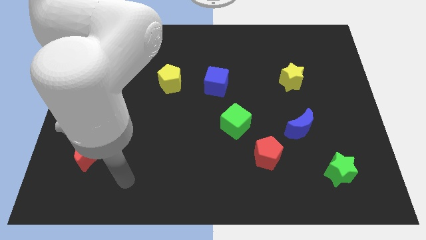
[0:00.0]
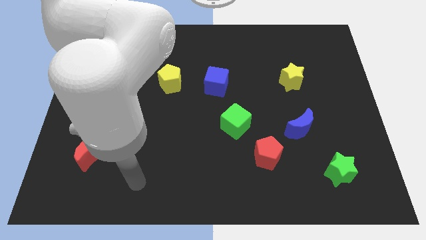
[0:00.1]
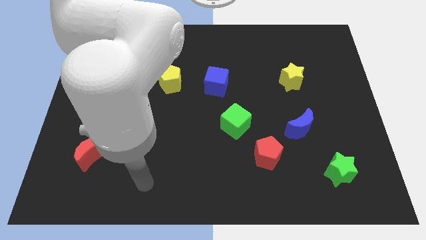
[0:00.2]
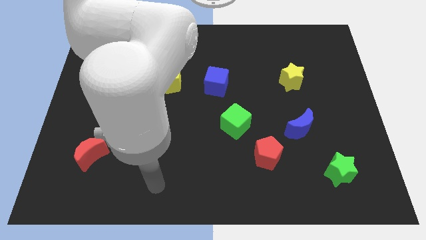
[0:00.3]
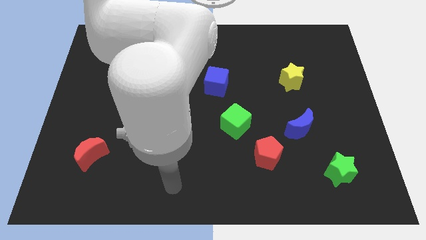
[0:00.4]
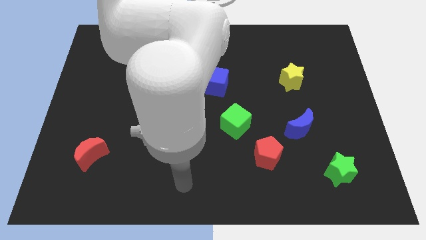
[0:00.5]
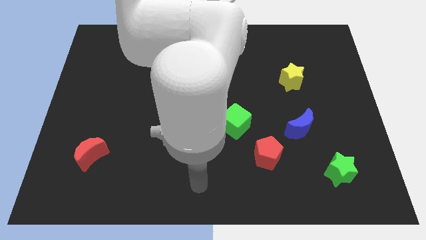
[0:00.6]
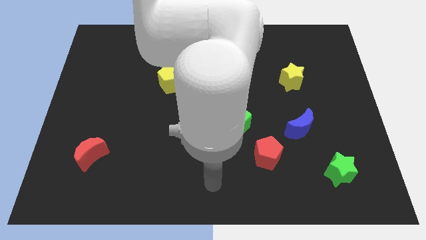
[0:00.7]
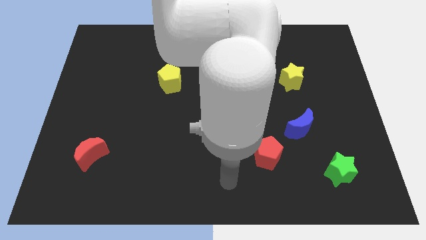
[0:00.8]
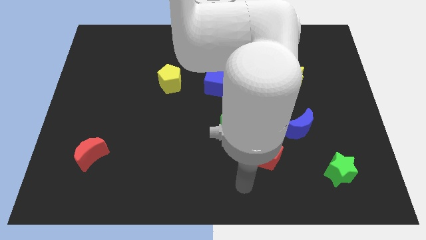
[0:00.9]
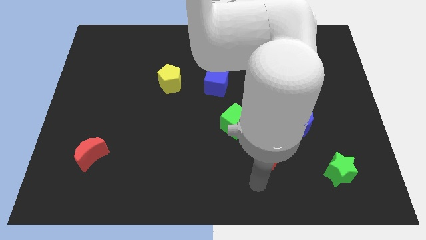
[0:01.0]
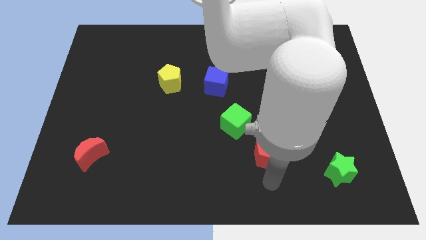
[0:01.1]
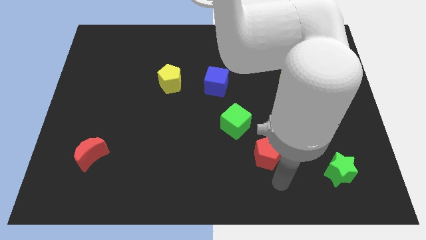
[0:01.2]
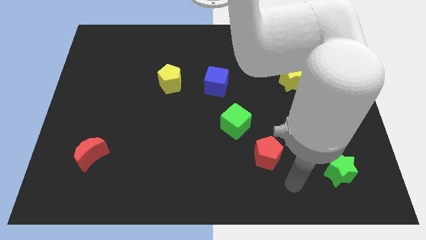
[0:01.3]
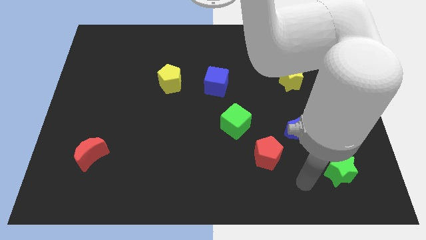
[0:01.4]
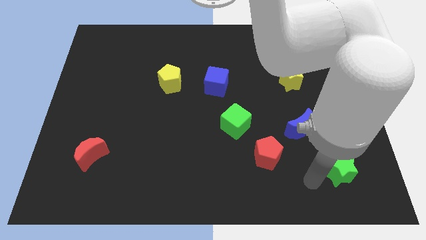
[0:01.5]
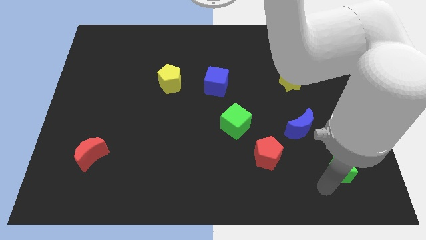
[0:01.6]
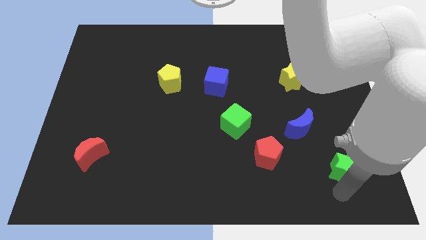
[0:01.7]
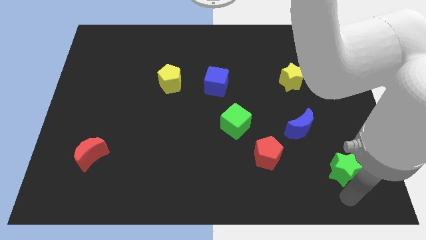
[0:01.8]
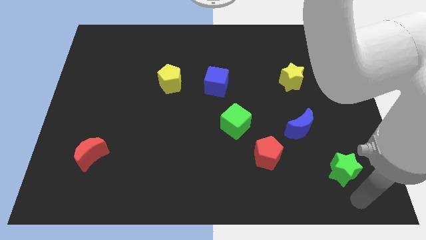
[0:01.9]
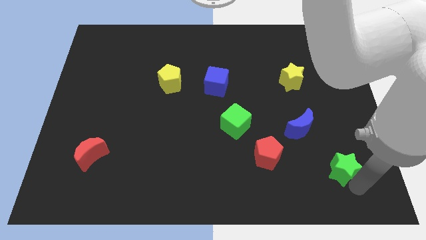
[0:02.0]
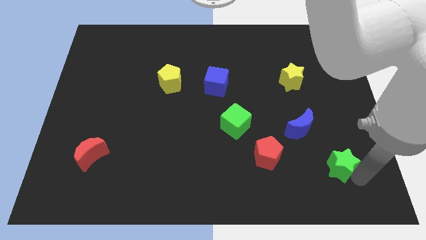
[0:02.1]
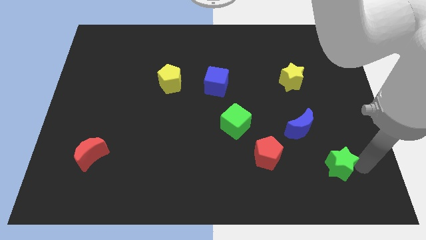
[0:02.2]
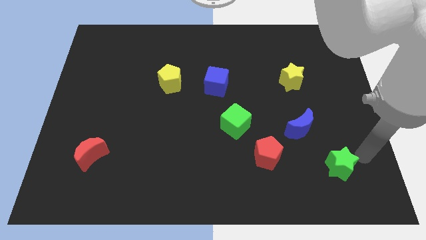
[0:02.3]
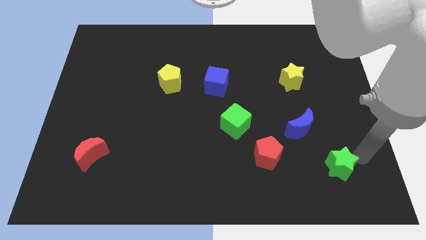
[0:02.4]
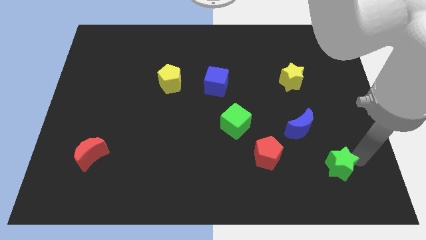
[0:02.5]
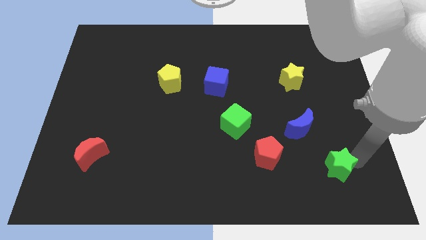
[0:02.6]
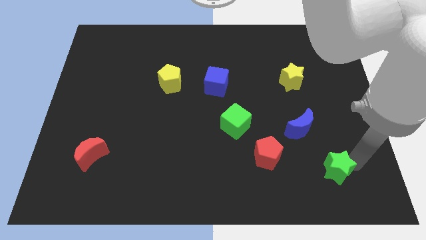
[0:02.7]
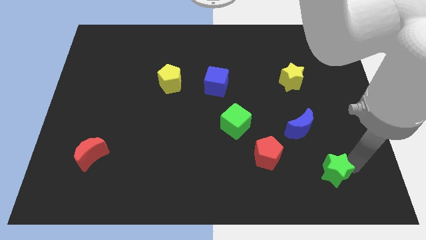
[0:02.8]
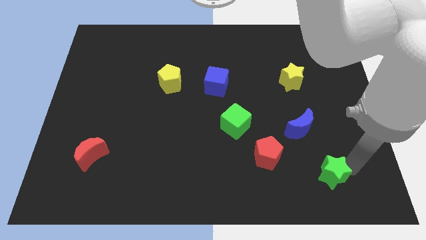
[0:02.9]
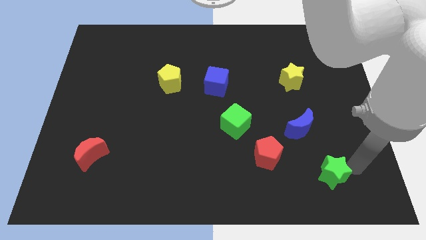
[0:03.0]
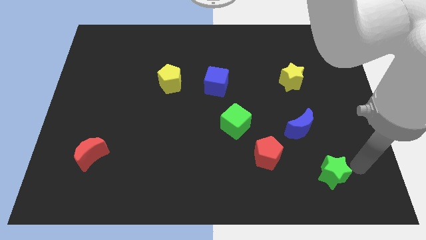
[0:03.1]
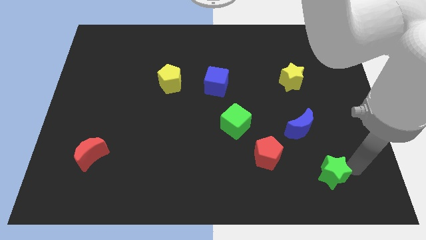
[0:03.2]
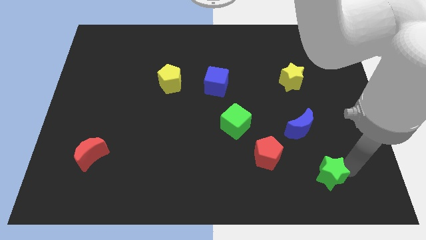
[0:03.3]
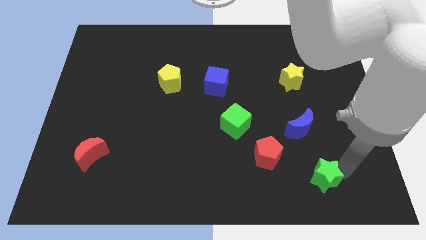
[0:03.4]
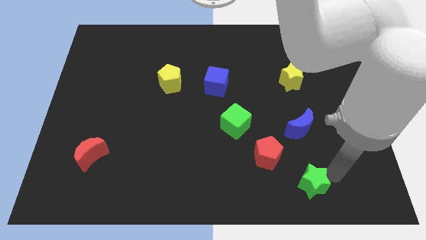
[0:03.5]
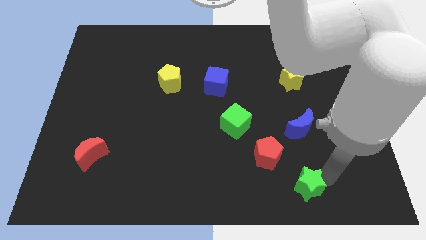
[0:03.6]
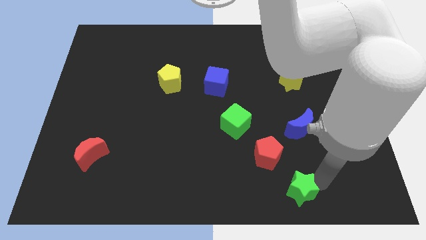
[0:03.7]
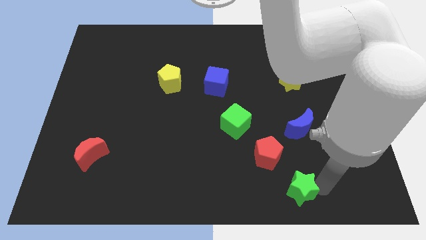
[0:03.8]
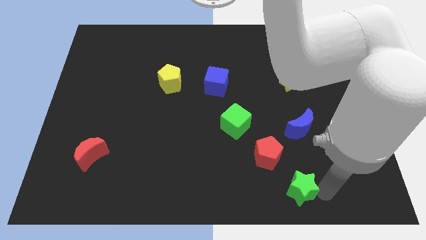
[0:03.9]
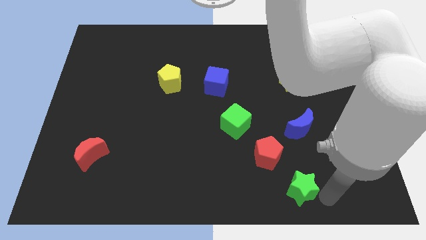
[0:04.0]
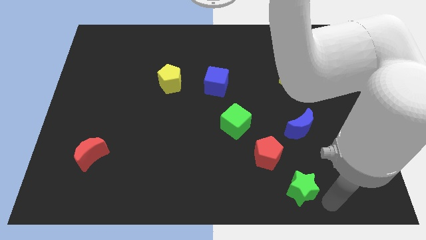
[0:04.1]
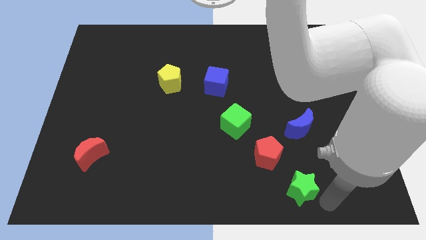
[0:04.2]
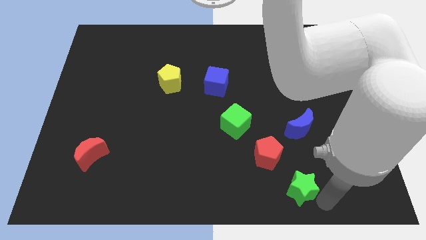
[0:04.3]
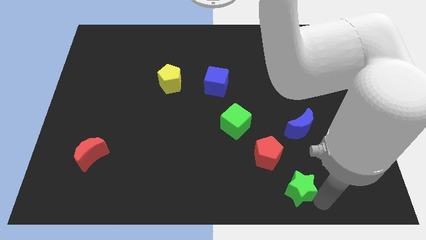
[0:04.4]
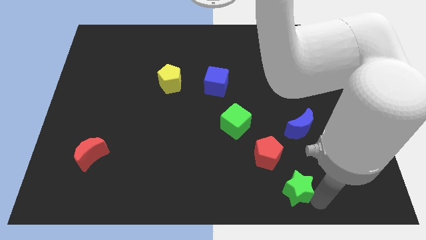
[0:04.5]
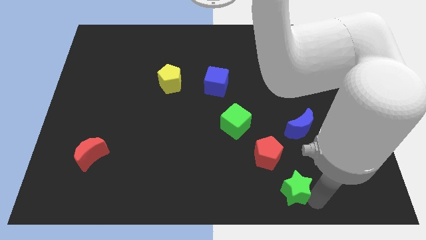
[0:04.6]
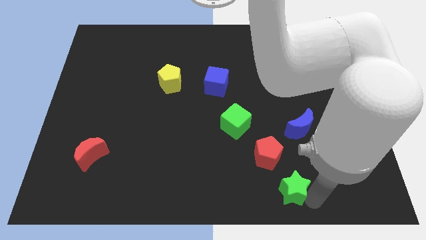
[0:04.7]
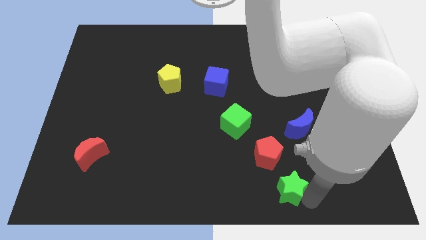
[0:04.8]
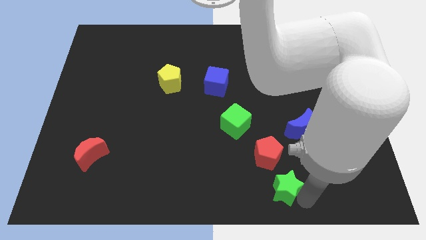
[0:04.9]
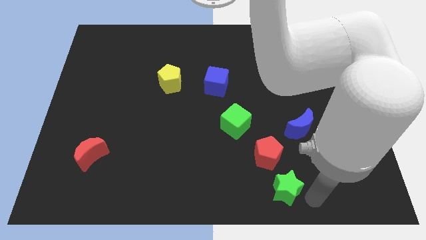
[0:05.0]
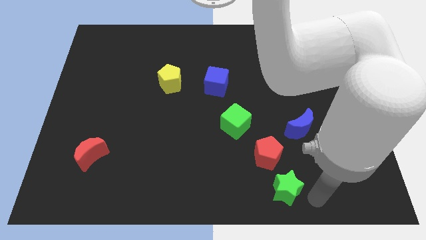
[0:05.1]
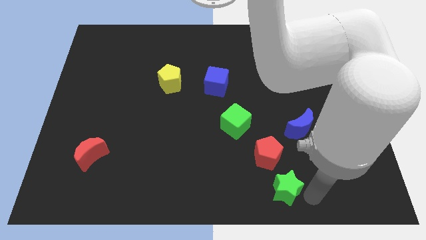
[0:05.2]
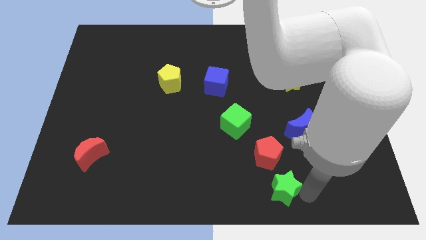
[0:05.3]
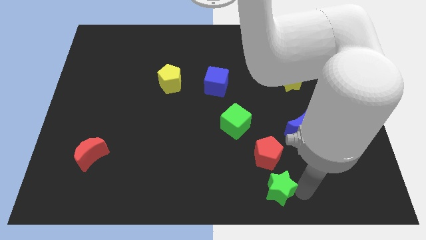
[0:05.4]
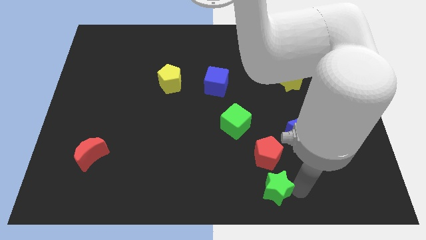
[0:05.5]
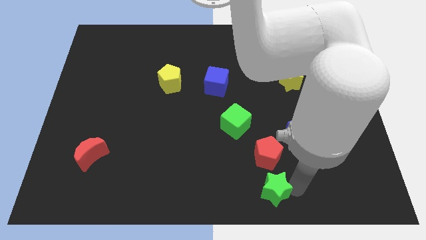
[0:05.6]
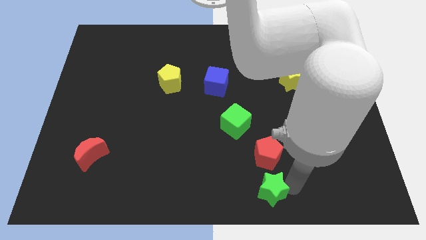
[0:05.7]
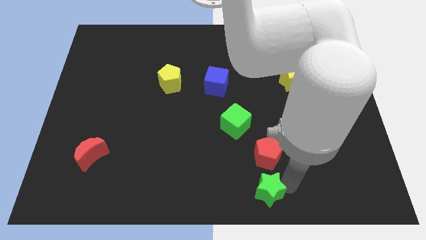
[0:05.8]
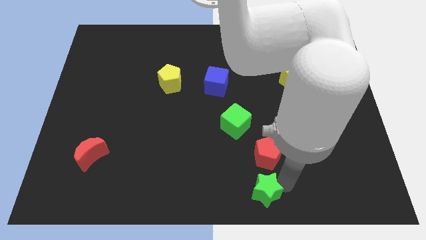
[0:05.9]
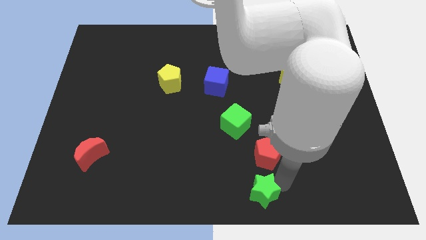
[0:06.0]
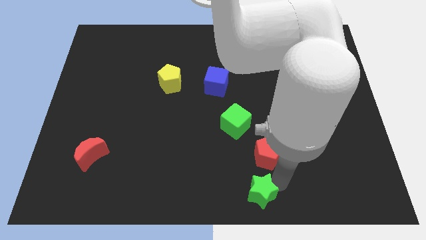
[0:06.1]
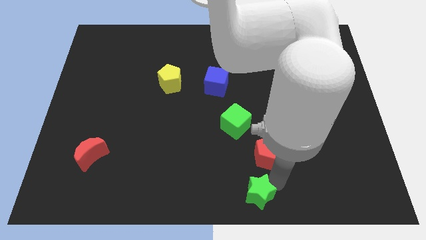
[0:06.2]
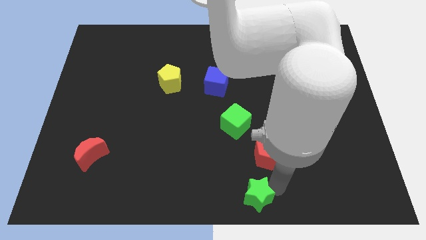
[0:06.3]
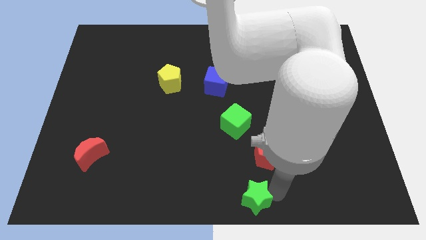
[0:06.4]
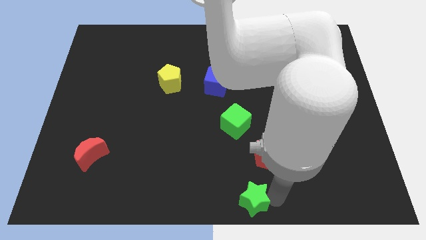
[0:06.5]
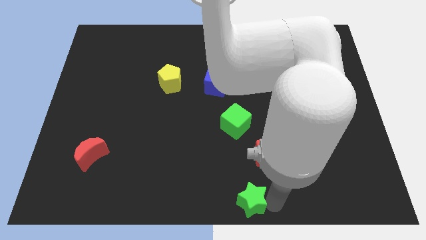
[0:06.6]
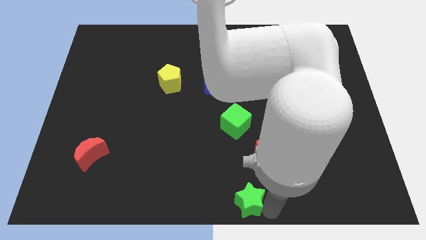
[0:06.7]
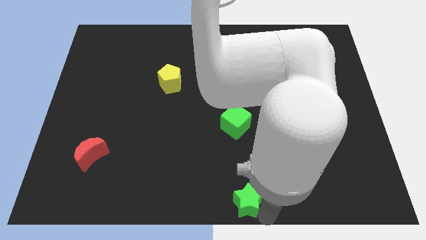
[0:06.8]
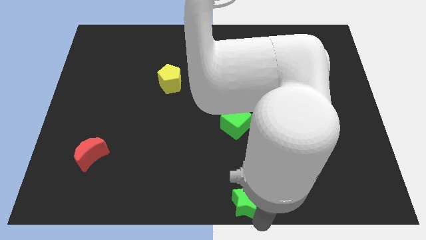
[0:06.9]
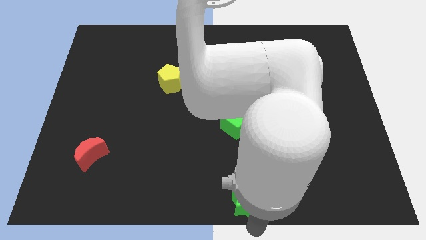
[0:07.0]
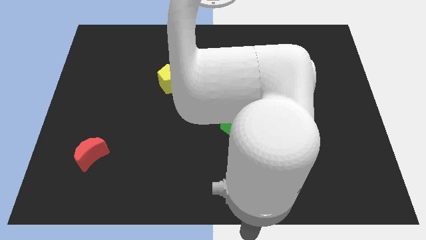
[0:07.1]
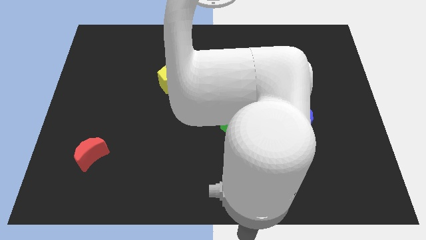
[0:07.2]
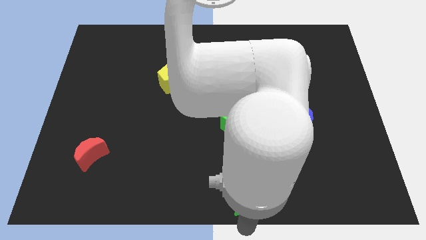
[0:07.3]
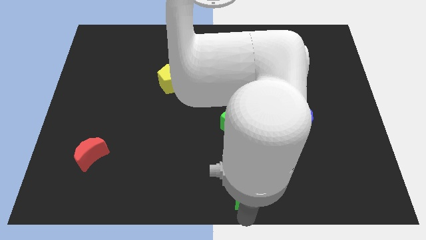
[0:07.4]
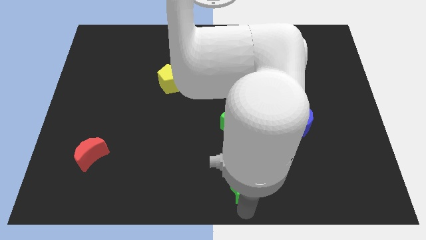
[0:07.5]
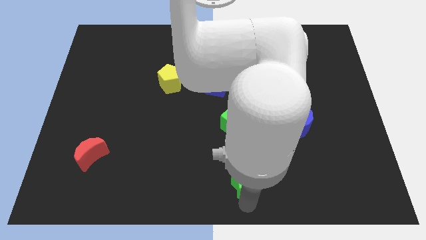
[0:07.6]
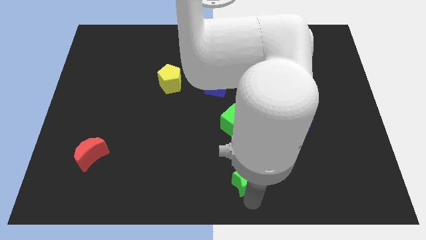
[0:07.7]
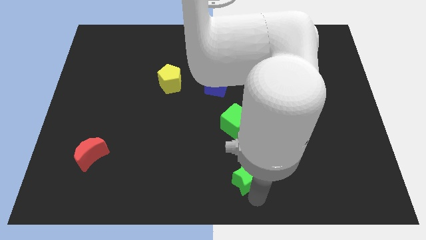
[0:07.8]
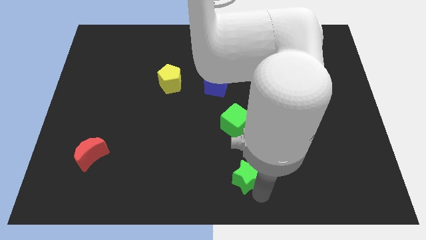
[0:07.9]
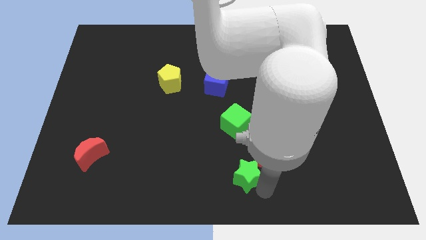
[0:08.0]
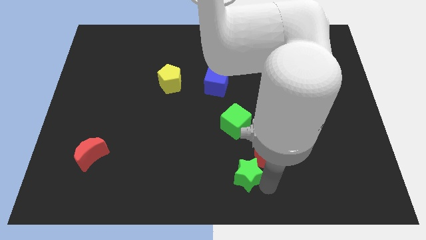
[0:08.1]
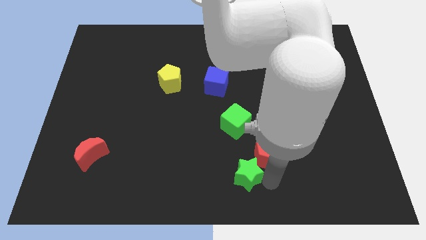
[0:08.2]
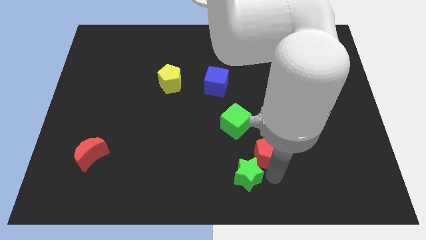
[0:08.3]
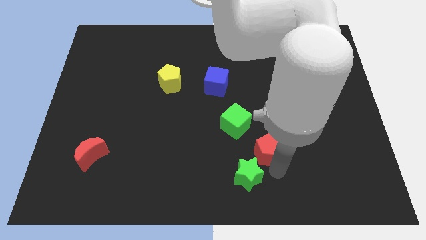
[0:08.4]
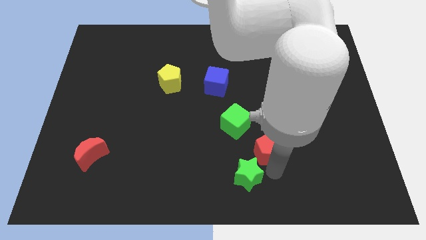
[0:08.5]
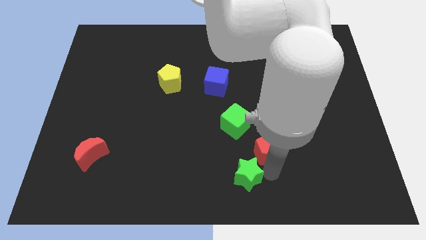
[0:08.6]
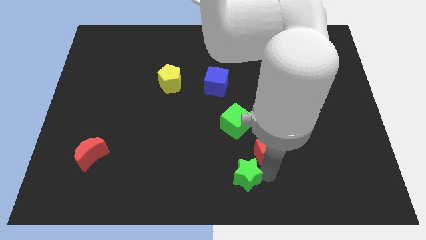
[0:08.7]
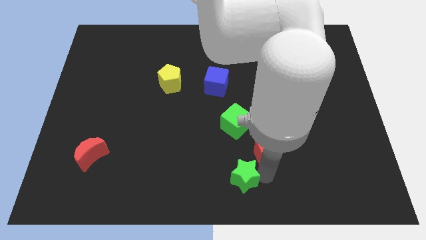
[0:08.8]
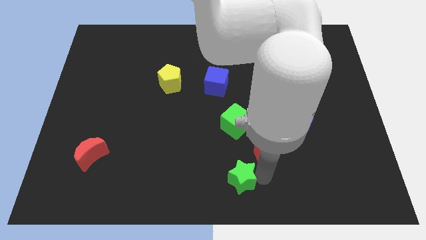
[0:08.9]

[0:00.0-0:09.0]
move the green star left
